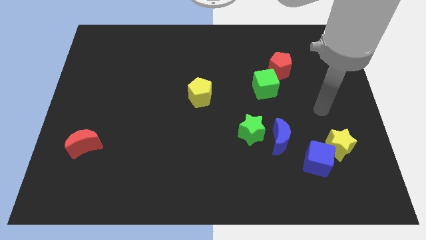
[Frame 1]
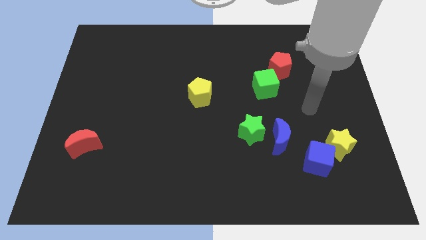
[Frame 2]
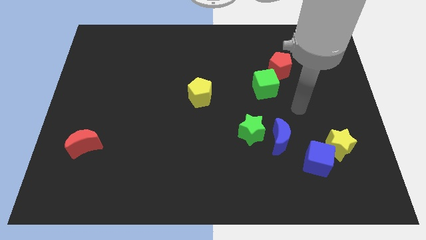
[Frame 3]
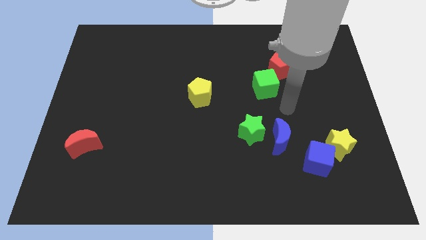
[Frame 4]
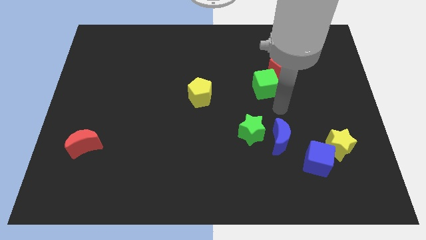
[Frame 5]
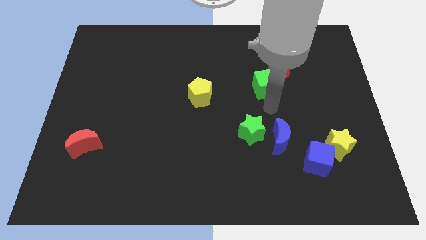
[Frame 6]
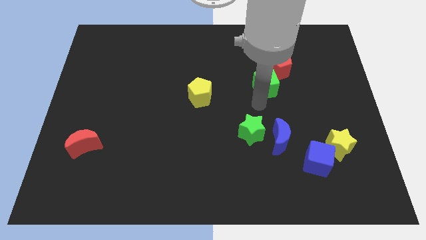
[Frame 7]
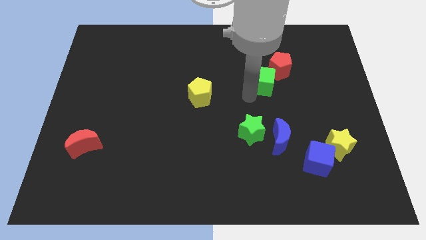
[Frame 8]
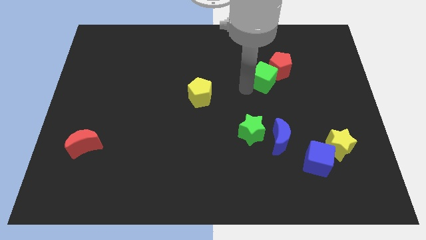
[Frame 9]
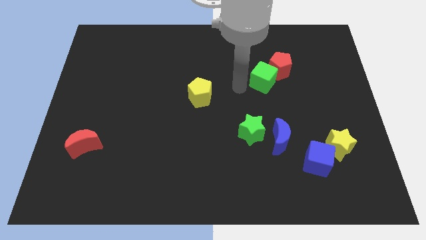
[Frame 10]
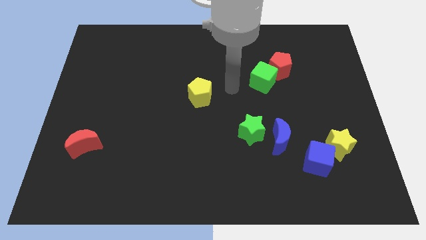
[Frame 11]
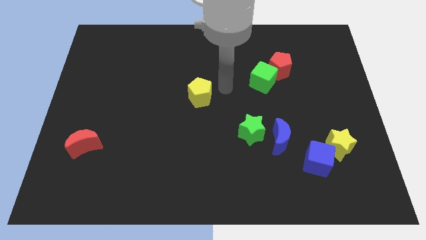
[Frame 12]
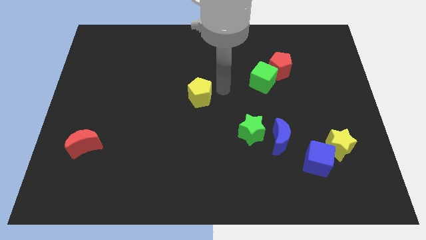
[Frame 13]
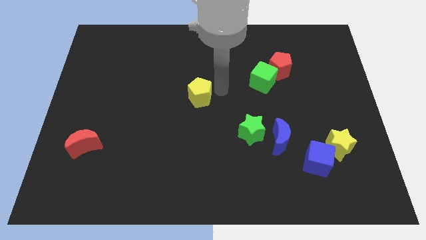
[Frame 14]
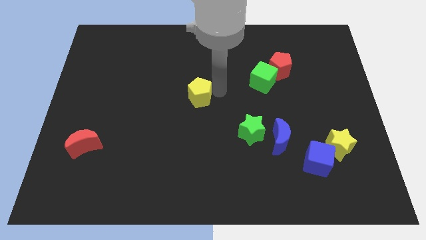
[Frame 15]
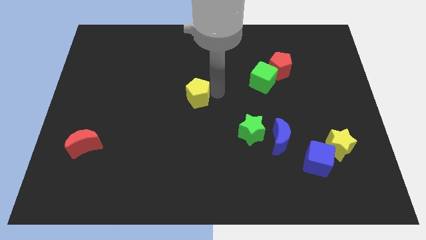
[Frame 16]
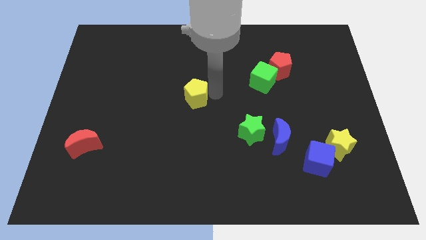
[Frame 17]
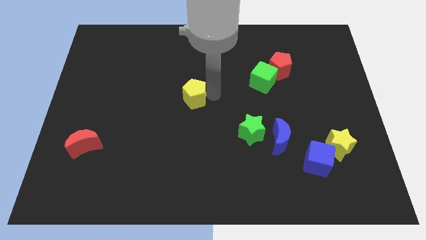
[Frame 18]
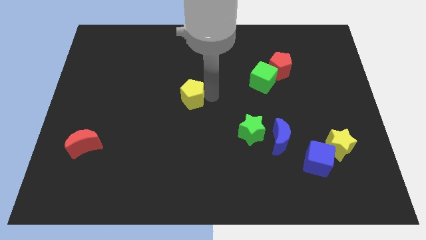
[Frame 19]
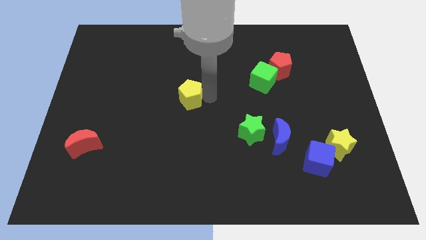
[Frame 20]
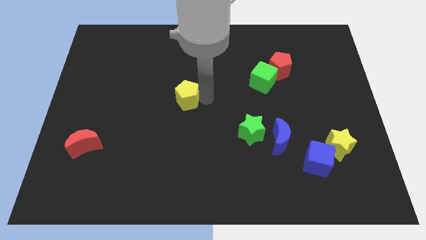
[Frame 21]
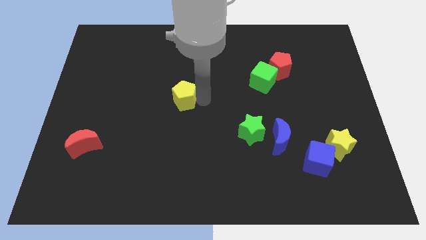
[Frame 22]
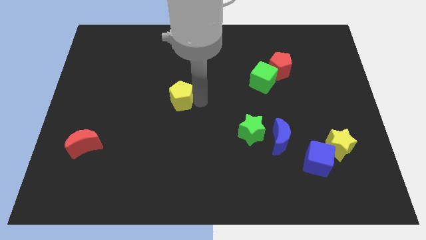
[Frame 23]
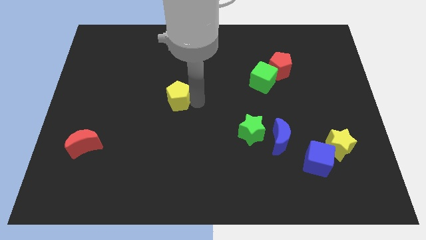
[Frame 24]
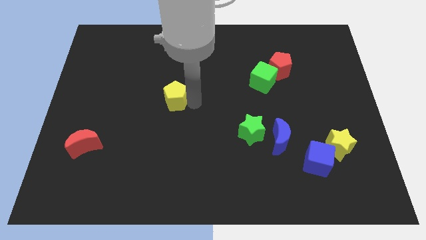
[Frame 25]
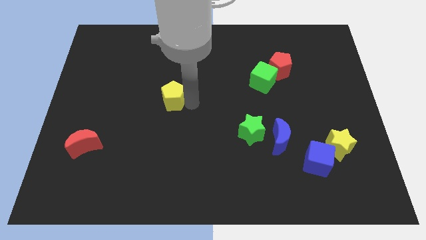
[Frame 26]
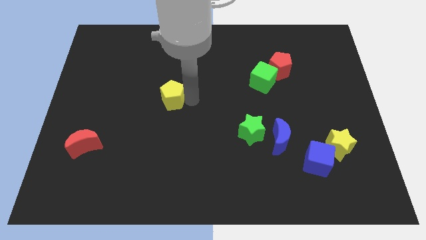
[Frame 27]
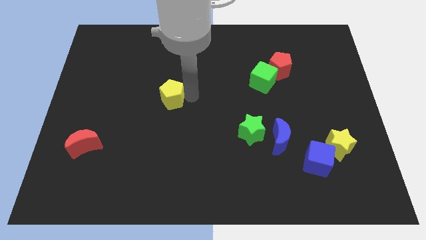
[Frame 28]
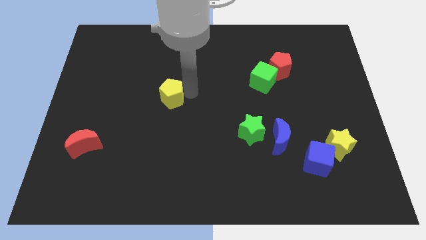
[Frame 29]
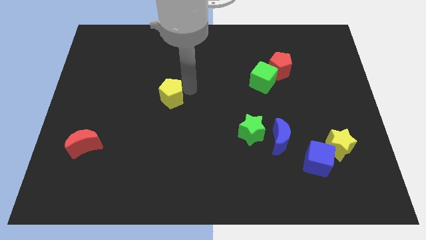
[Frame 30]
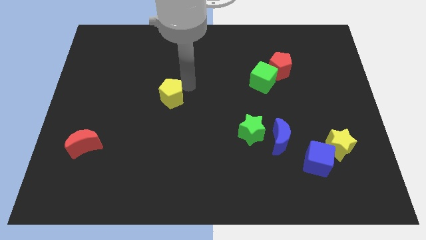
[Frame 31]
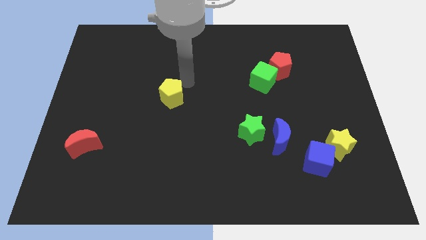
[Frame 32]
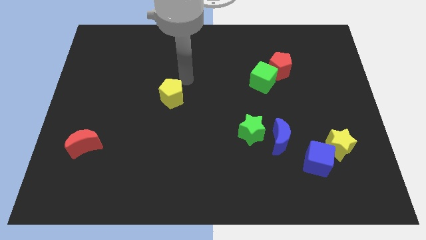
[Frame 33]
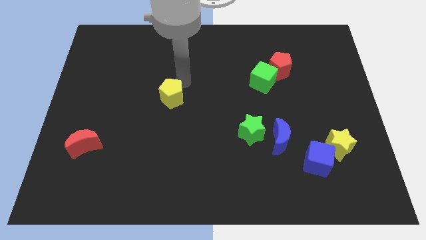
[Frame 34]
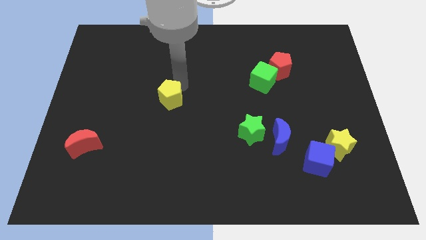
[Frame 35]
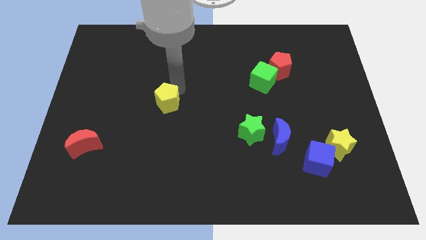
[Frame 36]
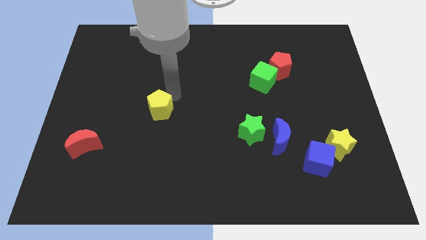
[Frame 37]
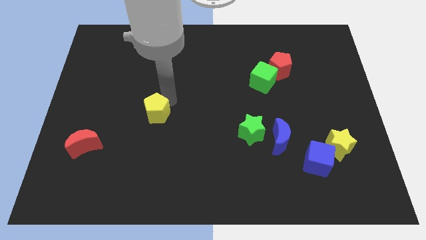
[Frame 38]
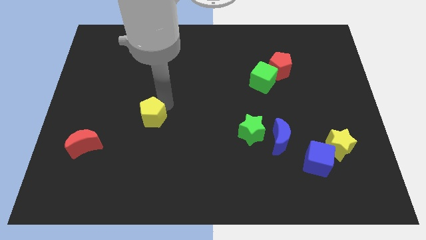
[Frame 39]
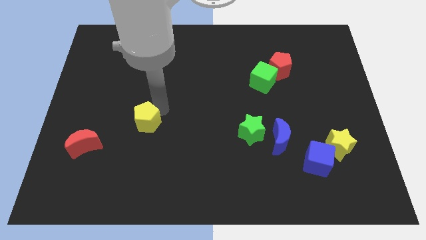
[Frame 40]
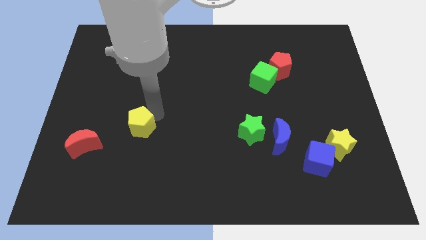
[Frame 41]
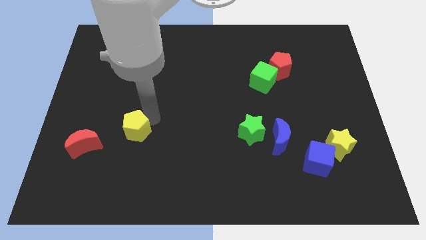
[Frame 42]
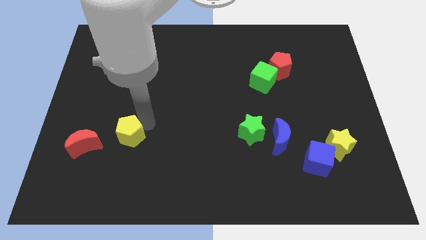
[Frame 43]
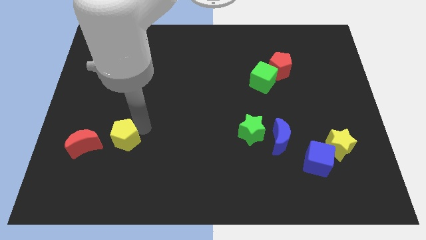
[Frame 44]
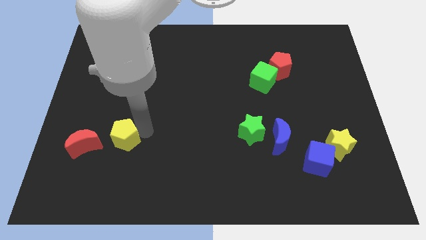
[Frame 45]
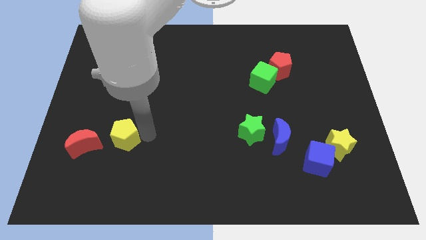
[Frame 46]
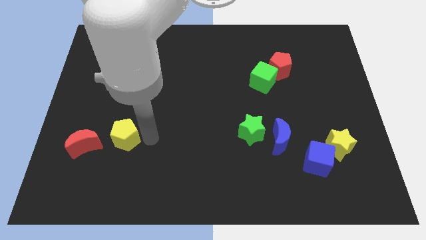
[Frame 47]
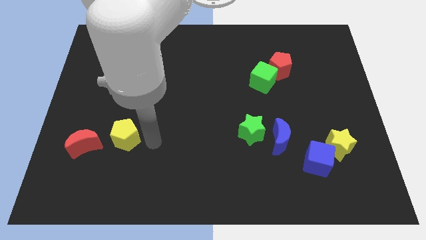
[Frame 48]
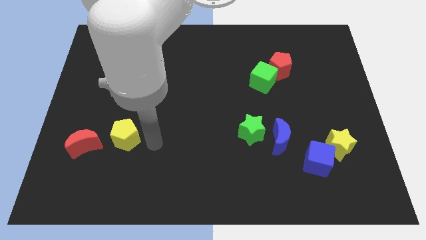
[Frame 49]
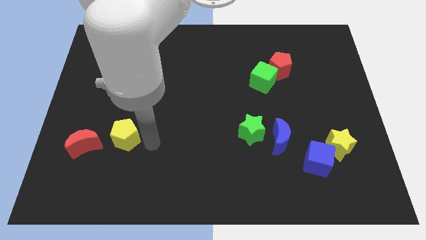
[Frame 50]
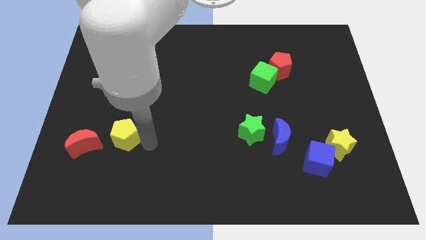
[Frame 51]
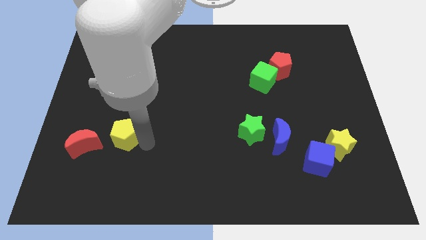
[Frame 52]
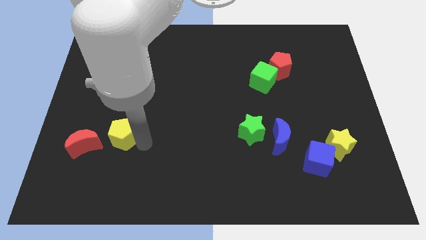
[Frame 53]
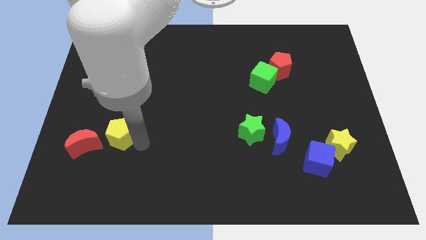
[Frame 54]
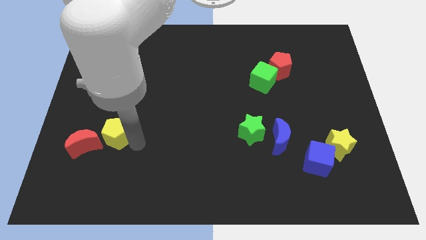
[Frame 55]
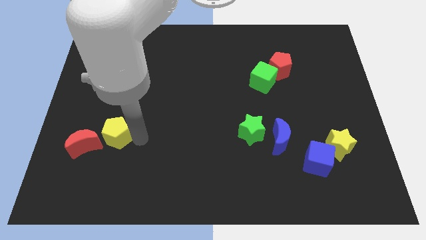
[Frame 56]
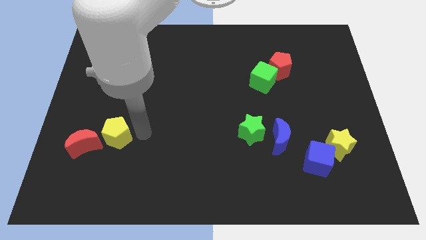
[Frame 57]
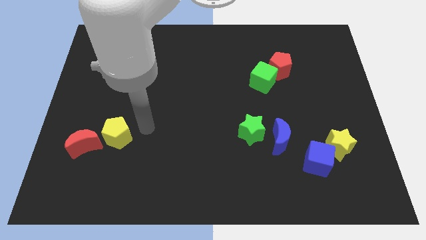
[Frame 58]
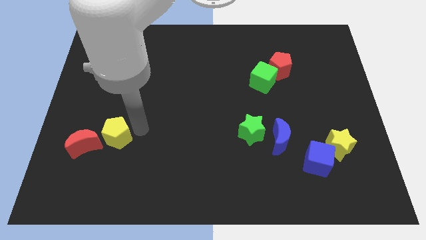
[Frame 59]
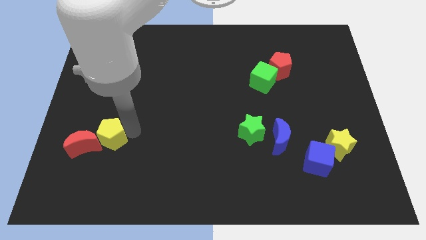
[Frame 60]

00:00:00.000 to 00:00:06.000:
slide the yellow pentagon next to the red moon

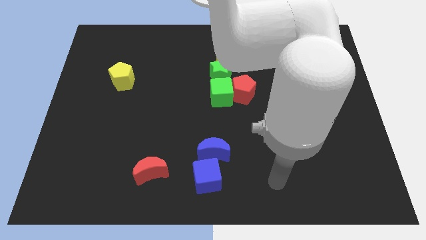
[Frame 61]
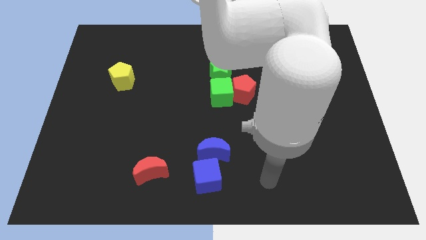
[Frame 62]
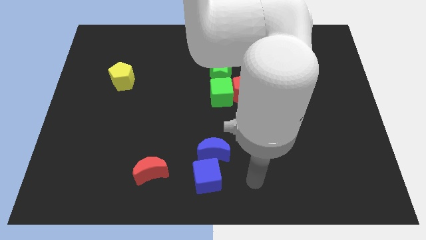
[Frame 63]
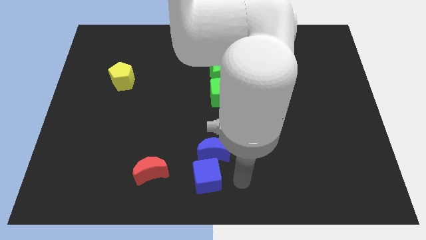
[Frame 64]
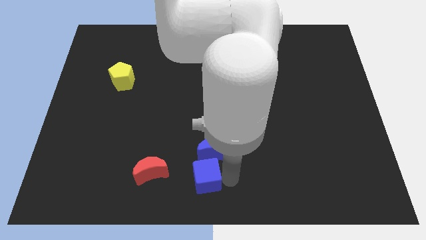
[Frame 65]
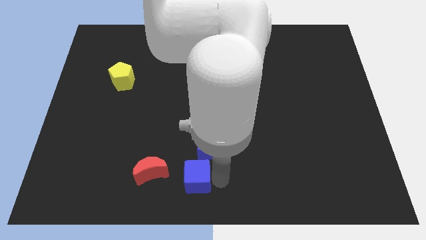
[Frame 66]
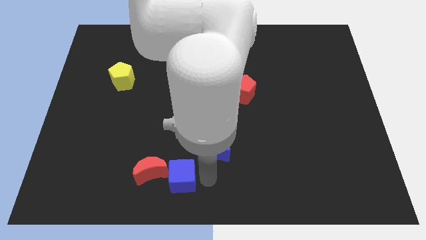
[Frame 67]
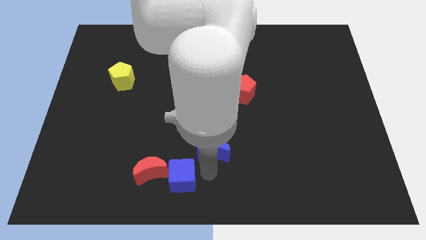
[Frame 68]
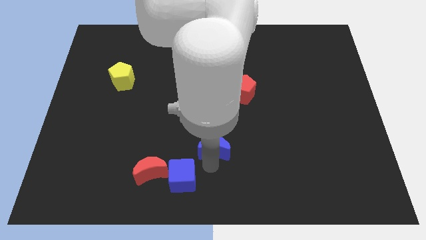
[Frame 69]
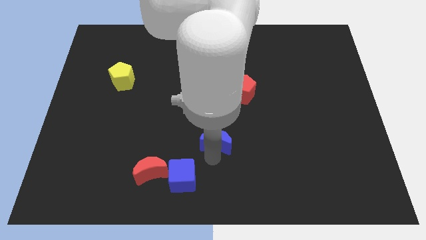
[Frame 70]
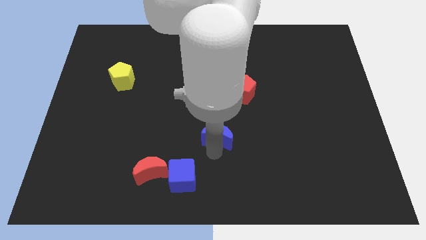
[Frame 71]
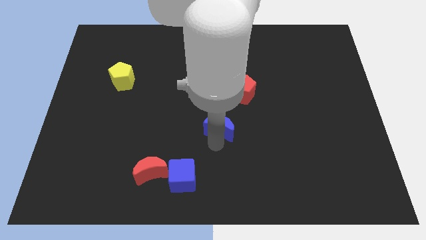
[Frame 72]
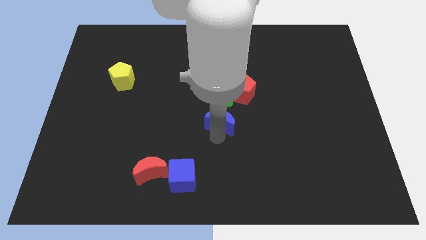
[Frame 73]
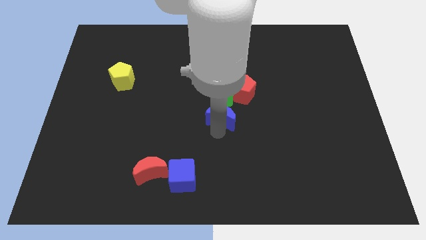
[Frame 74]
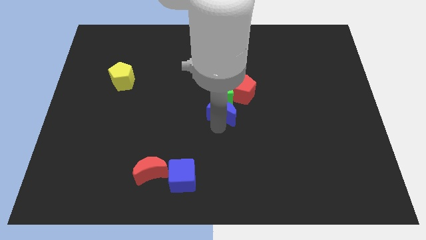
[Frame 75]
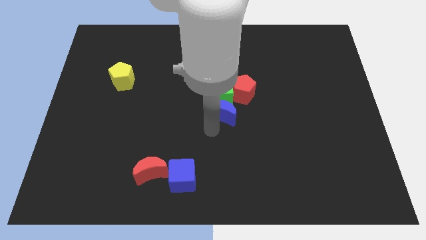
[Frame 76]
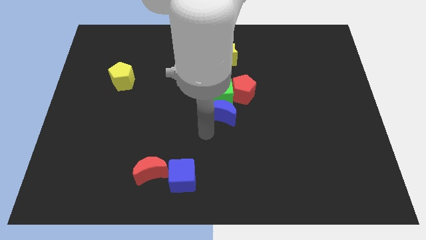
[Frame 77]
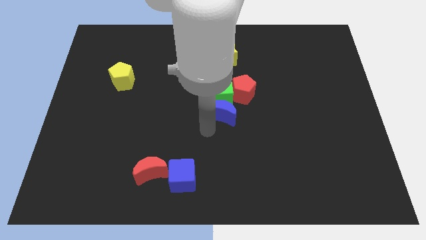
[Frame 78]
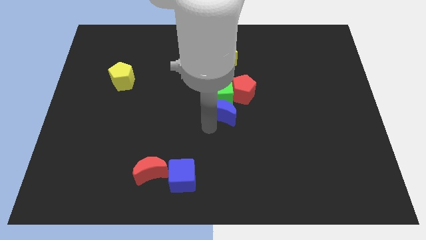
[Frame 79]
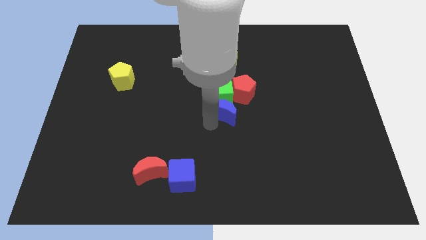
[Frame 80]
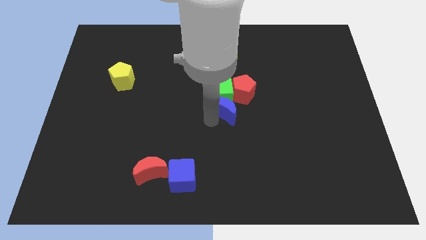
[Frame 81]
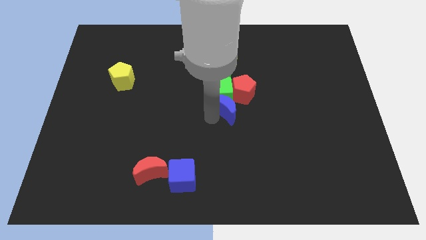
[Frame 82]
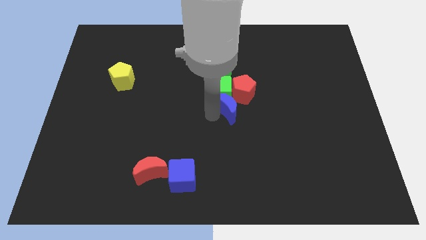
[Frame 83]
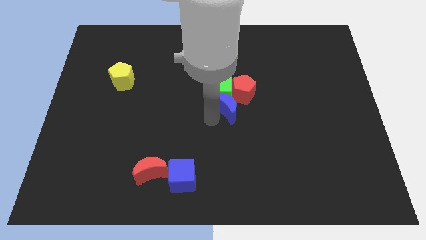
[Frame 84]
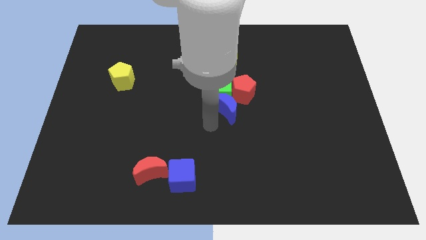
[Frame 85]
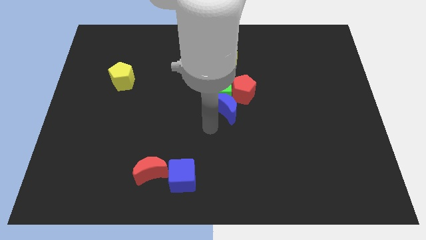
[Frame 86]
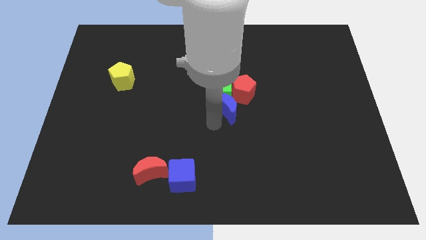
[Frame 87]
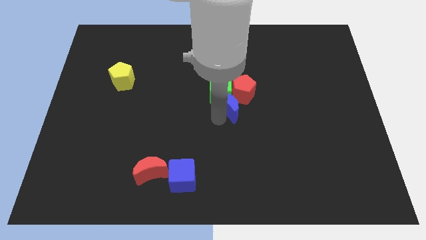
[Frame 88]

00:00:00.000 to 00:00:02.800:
move the blue moon close to the red pentagon
